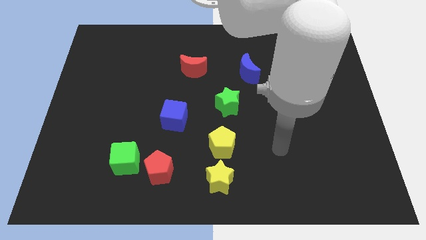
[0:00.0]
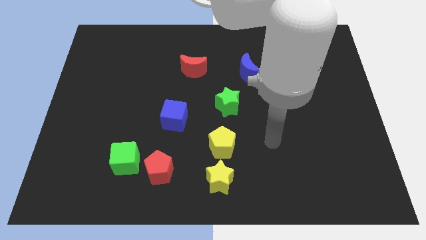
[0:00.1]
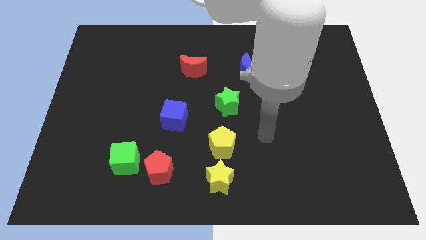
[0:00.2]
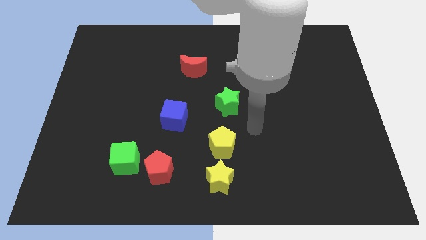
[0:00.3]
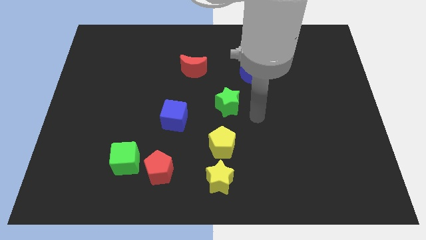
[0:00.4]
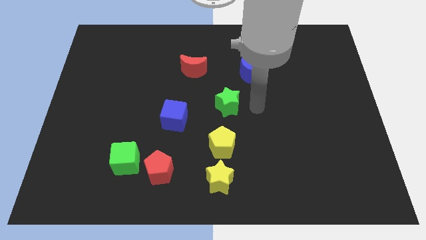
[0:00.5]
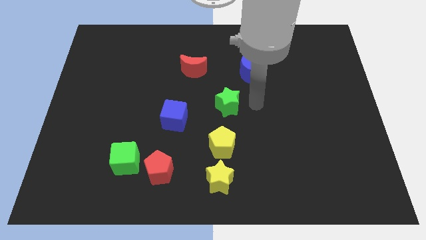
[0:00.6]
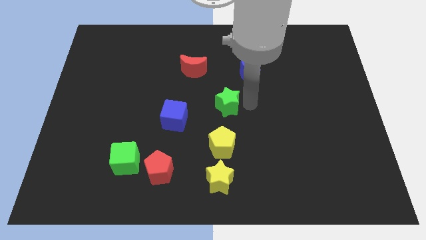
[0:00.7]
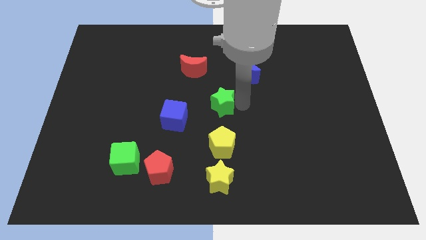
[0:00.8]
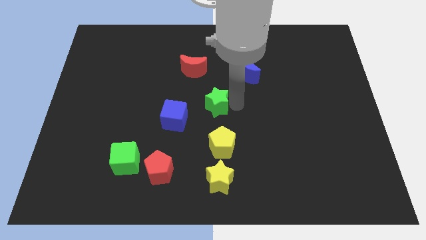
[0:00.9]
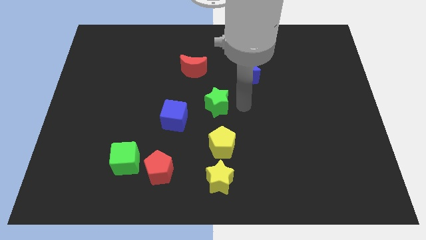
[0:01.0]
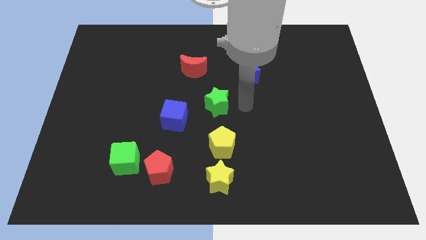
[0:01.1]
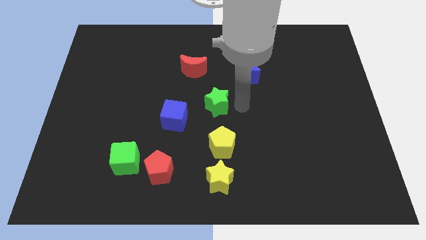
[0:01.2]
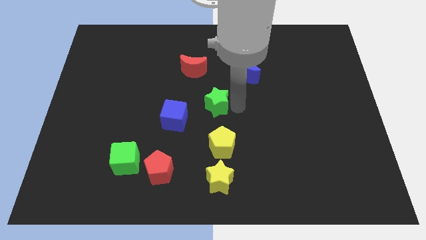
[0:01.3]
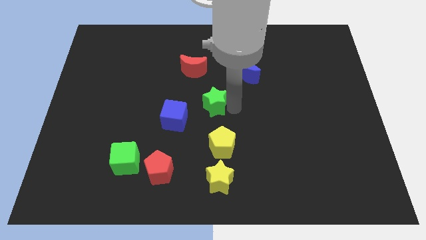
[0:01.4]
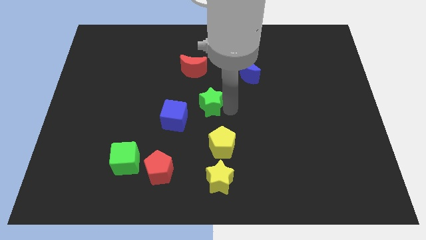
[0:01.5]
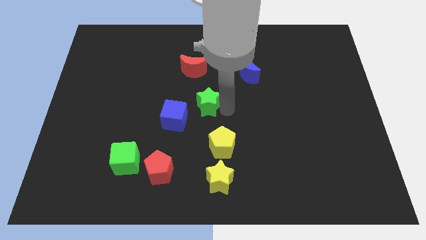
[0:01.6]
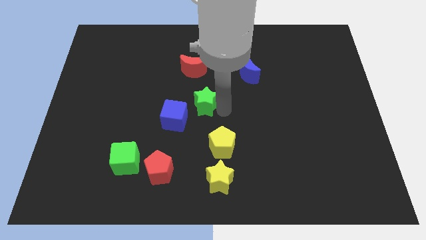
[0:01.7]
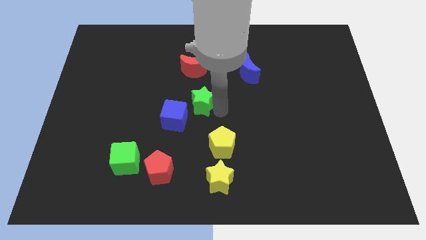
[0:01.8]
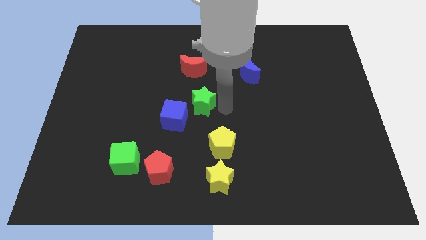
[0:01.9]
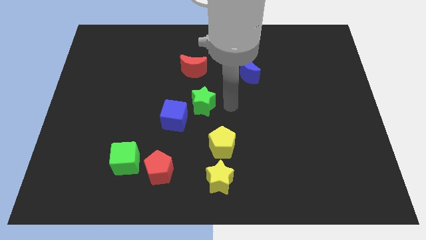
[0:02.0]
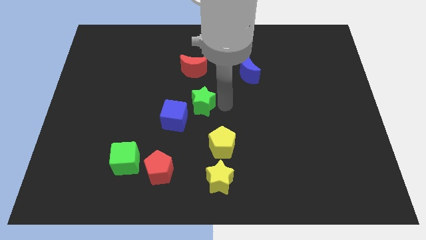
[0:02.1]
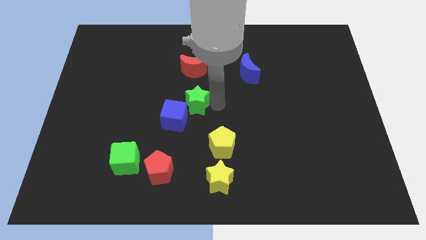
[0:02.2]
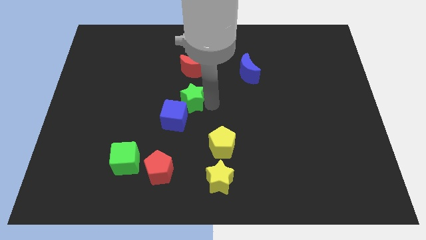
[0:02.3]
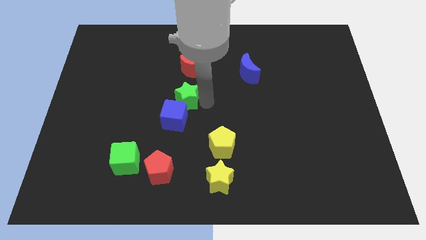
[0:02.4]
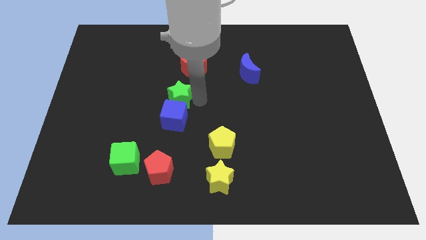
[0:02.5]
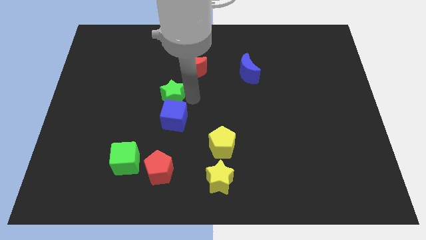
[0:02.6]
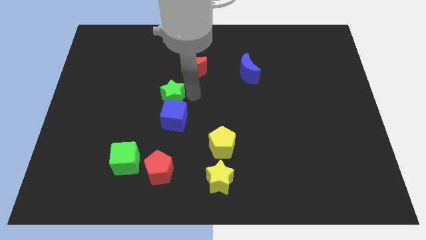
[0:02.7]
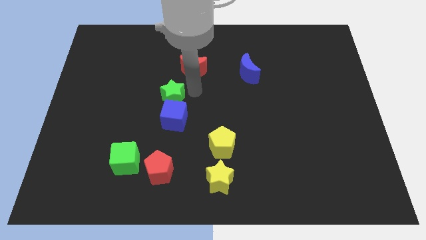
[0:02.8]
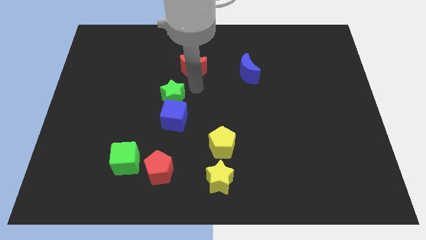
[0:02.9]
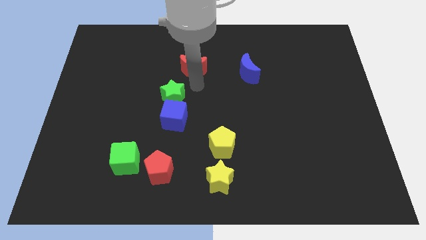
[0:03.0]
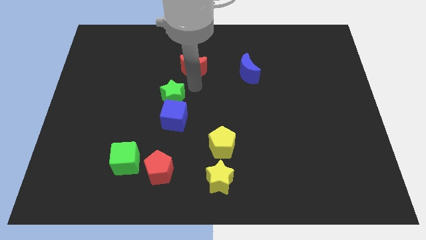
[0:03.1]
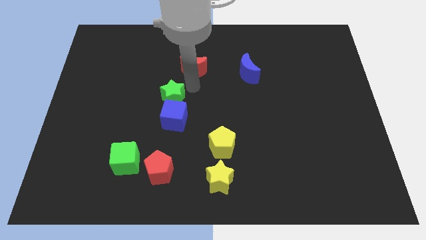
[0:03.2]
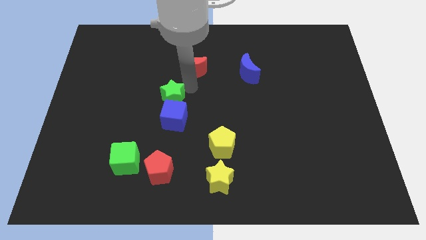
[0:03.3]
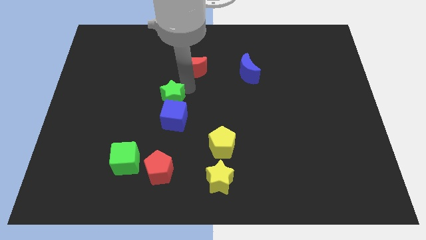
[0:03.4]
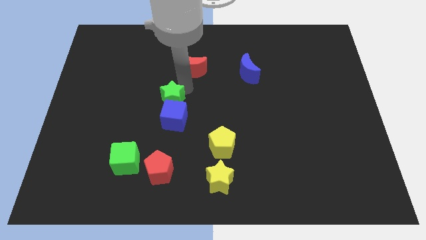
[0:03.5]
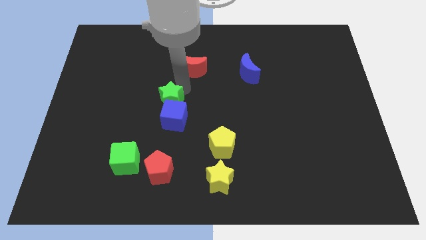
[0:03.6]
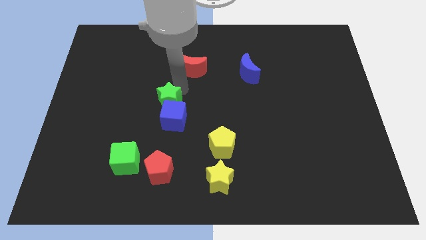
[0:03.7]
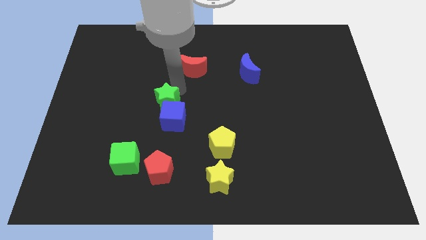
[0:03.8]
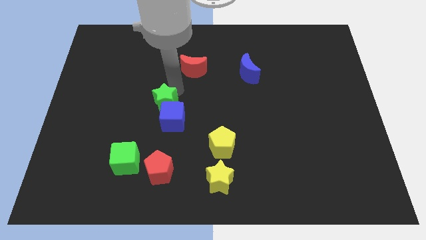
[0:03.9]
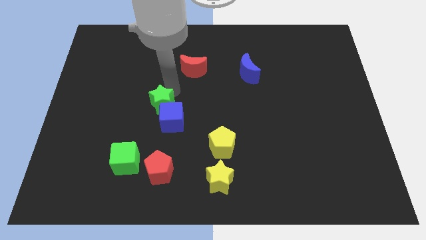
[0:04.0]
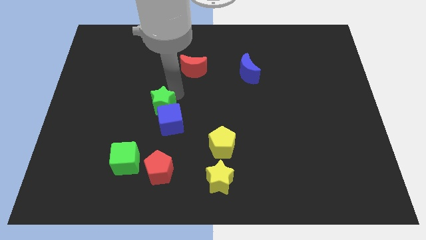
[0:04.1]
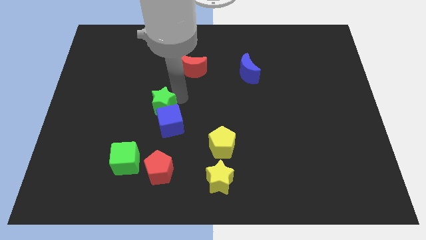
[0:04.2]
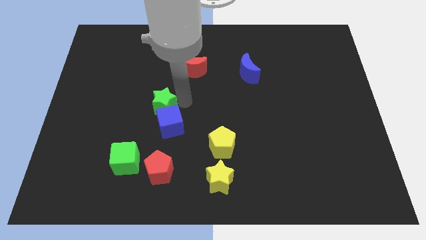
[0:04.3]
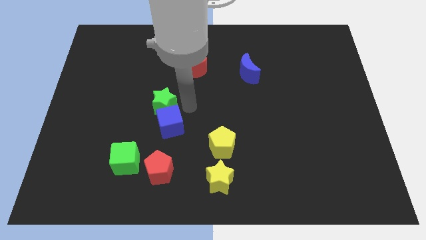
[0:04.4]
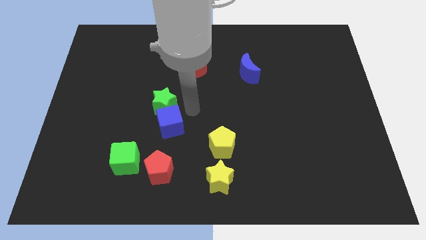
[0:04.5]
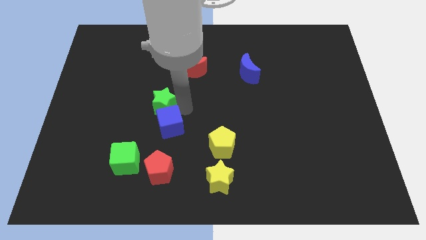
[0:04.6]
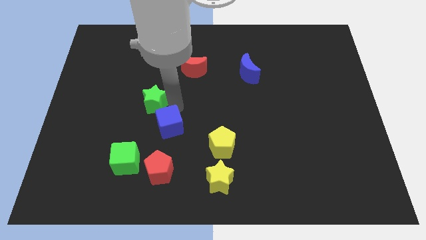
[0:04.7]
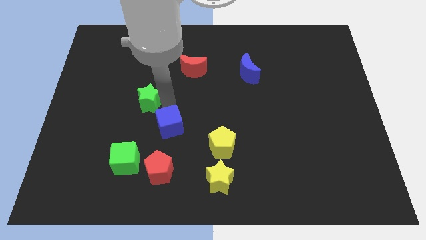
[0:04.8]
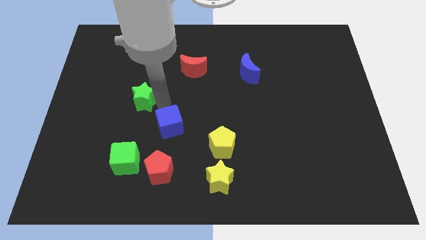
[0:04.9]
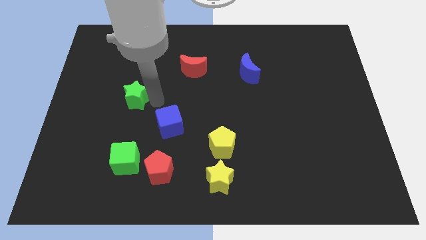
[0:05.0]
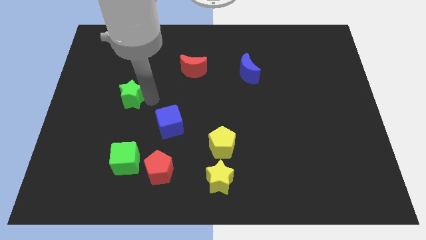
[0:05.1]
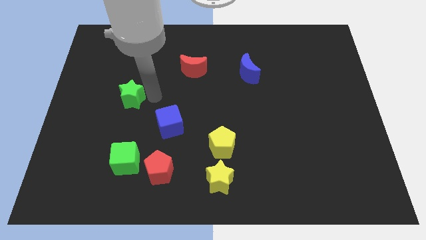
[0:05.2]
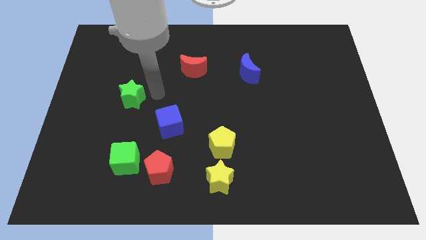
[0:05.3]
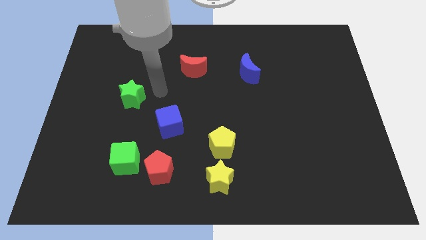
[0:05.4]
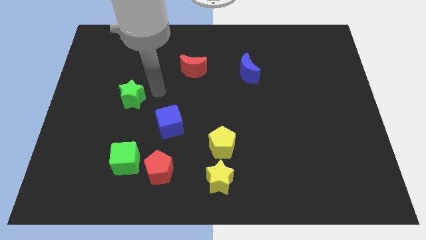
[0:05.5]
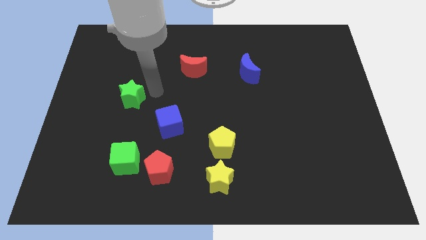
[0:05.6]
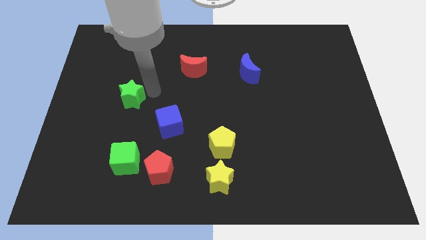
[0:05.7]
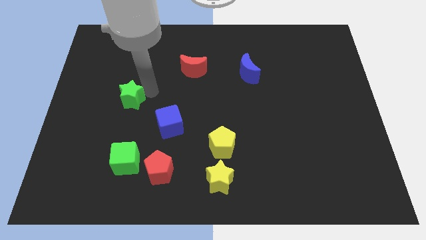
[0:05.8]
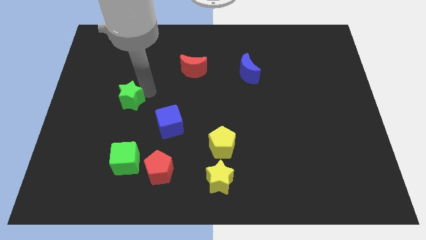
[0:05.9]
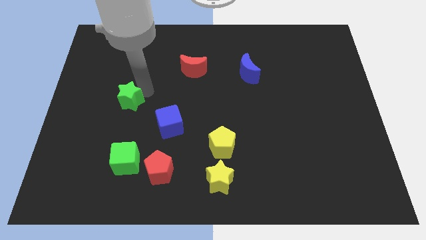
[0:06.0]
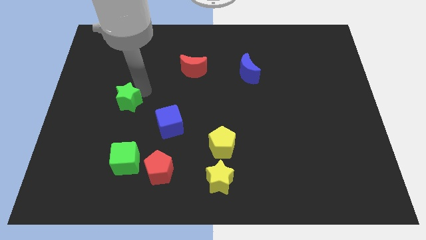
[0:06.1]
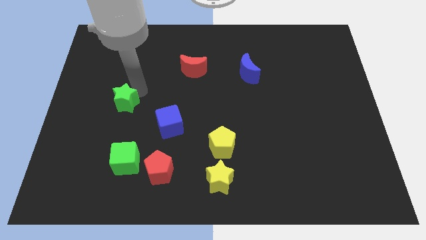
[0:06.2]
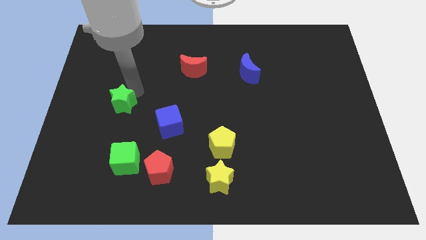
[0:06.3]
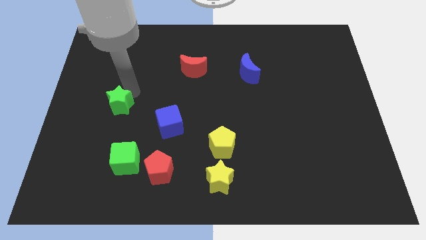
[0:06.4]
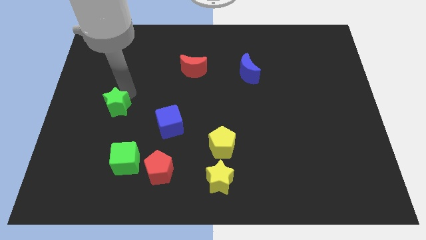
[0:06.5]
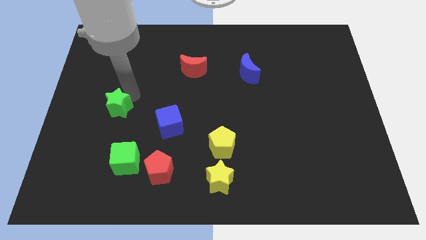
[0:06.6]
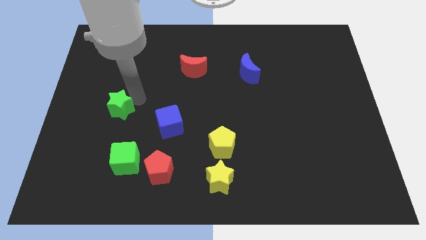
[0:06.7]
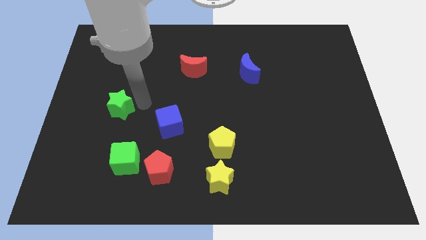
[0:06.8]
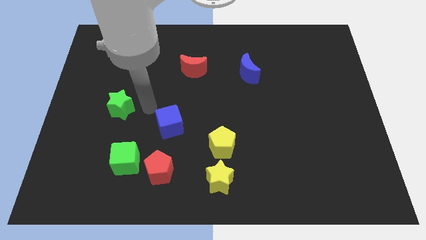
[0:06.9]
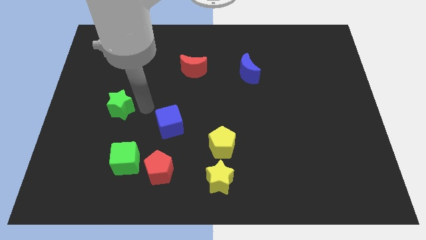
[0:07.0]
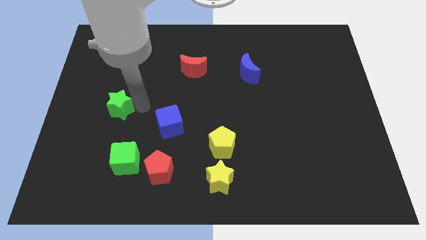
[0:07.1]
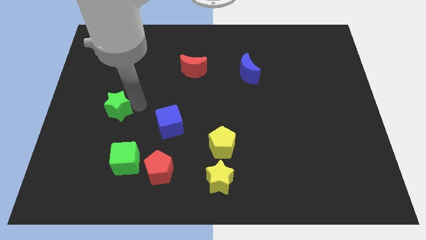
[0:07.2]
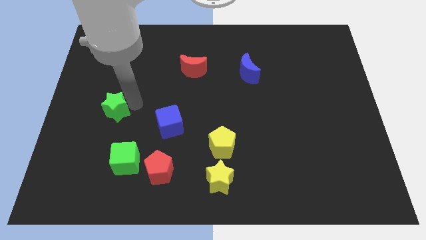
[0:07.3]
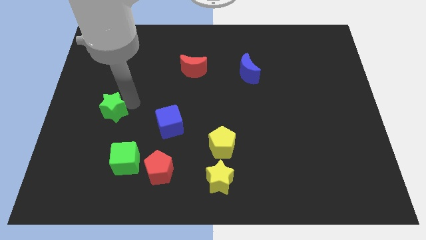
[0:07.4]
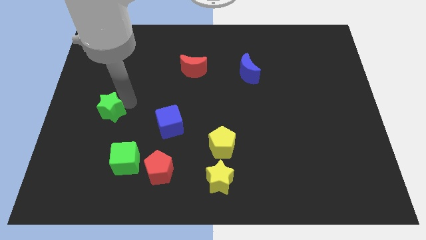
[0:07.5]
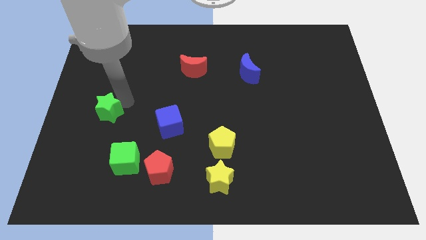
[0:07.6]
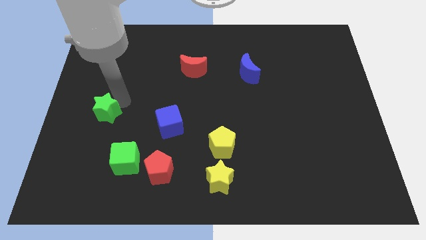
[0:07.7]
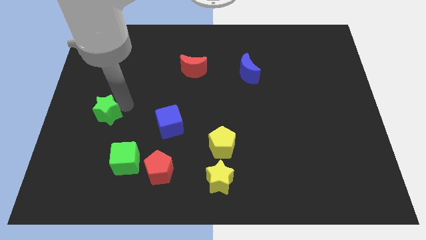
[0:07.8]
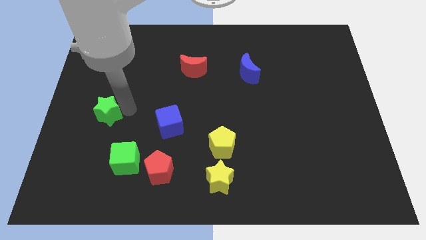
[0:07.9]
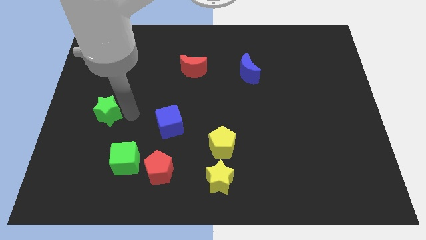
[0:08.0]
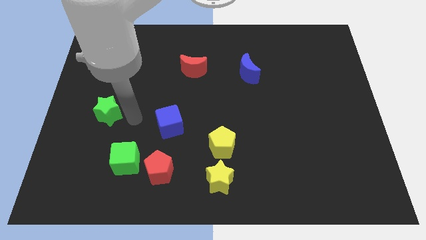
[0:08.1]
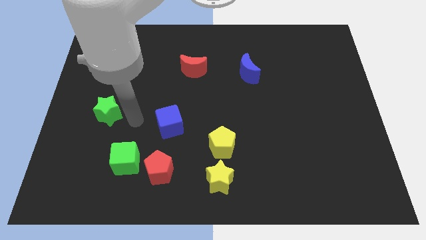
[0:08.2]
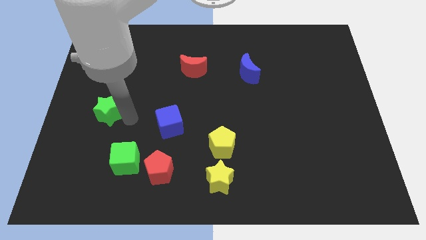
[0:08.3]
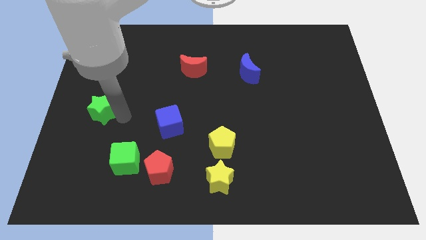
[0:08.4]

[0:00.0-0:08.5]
move the green star to the left side
